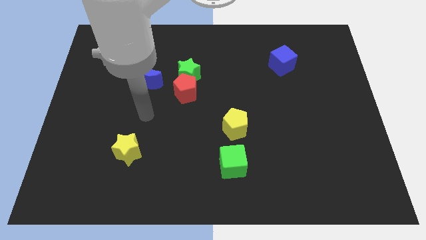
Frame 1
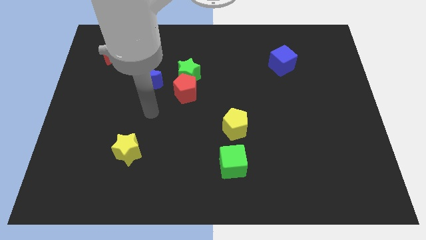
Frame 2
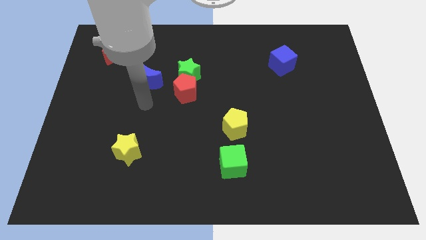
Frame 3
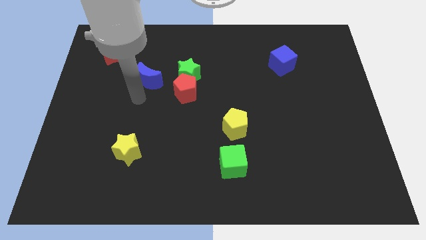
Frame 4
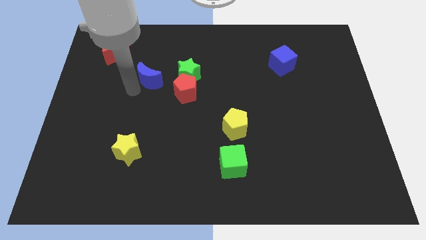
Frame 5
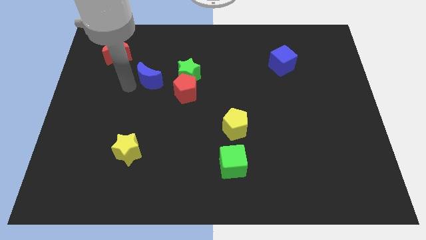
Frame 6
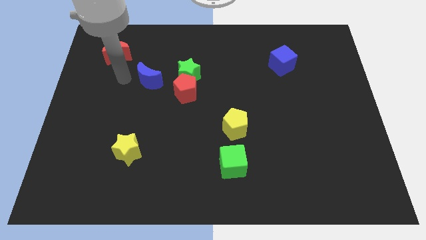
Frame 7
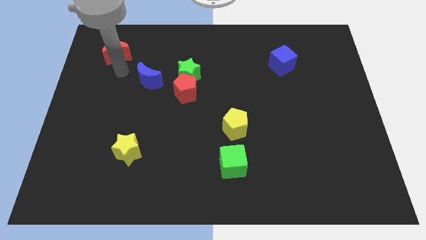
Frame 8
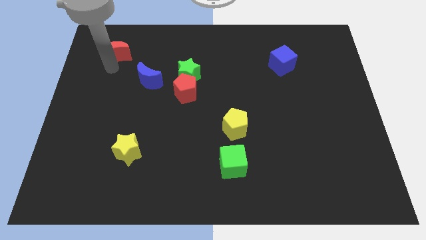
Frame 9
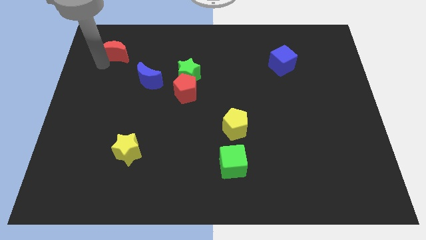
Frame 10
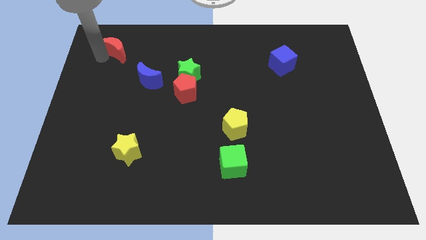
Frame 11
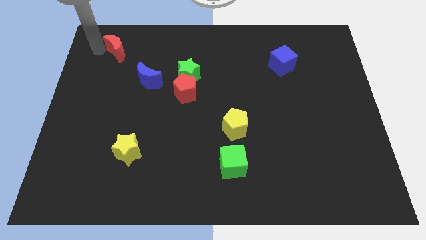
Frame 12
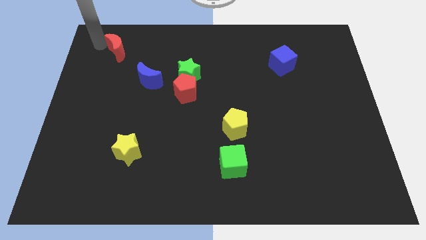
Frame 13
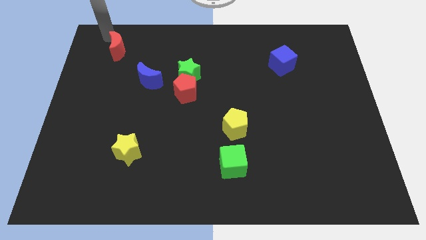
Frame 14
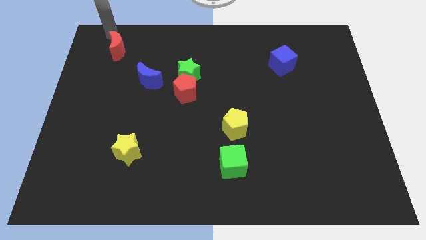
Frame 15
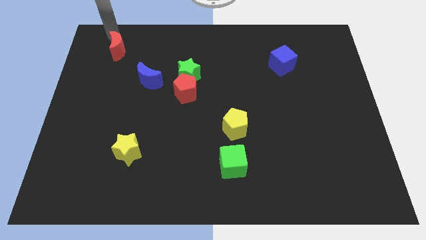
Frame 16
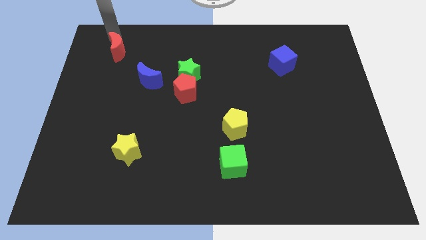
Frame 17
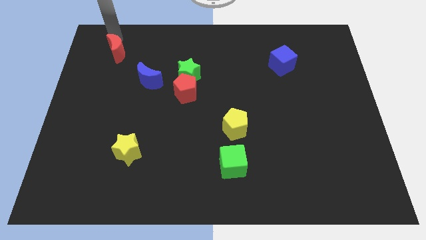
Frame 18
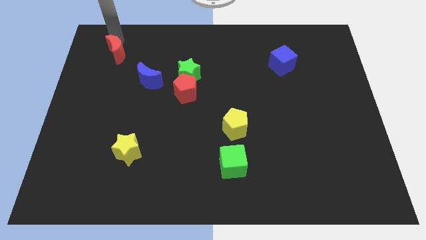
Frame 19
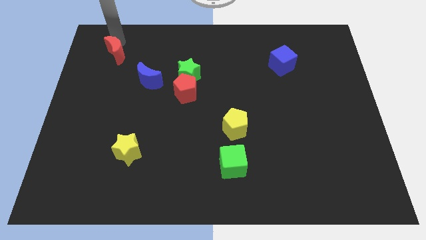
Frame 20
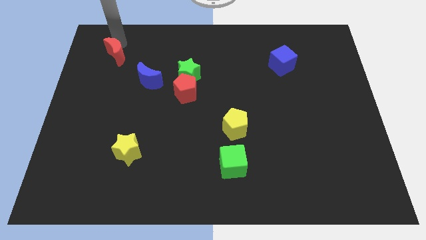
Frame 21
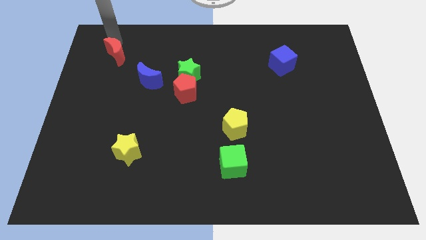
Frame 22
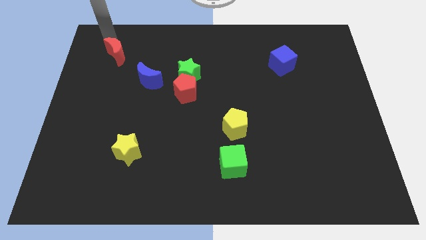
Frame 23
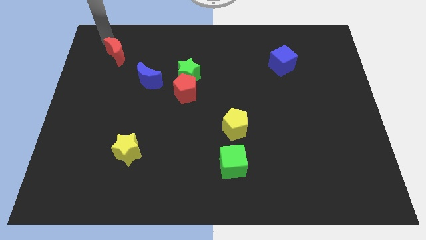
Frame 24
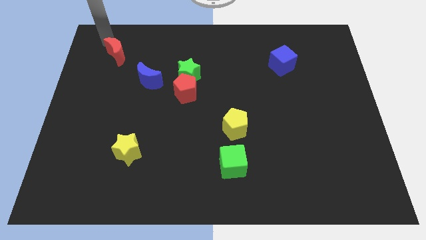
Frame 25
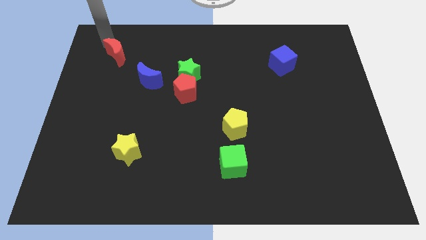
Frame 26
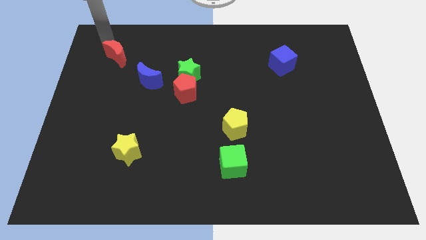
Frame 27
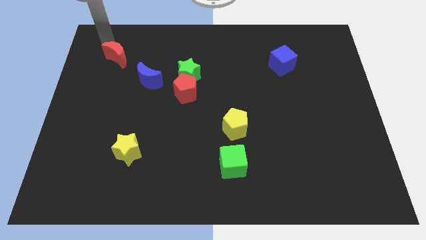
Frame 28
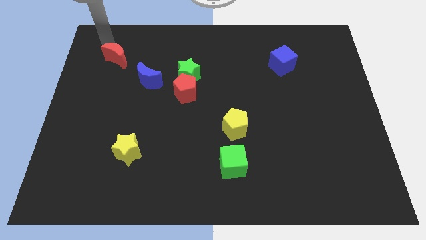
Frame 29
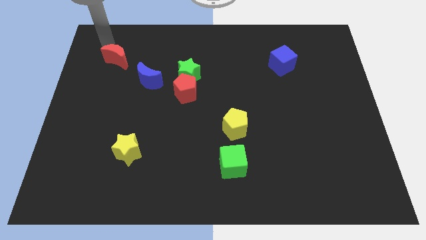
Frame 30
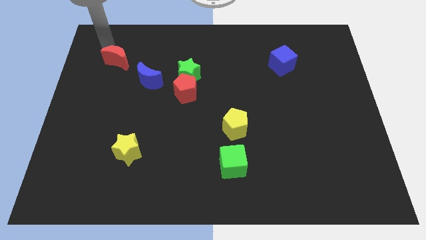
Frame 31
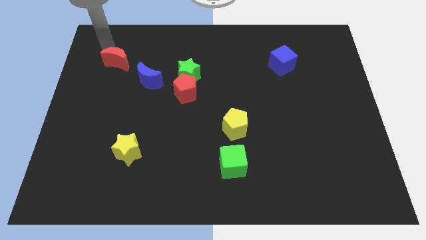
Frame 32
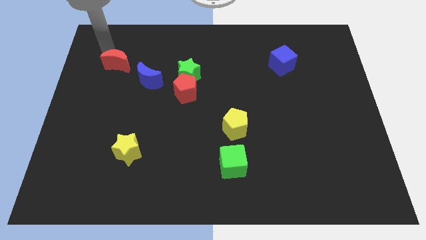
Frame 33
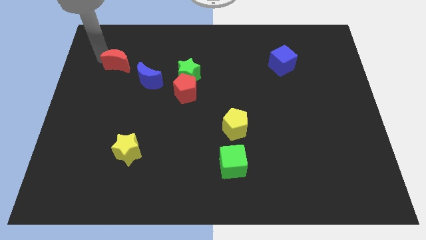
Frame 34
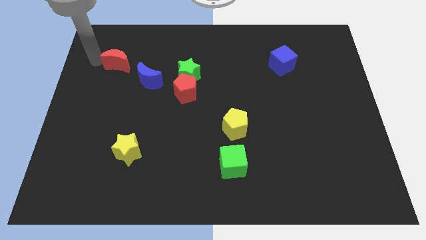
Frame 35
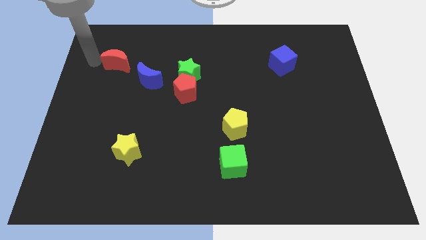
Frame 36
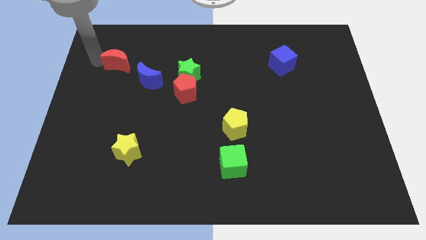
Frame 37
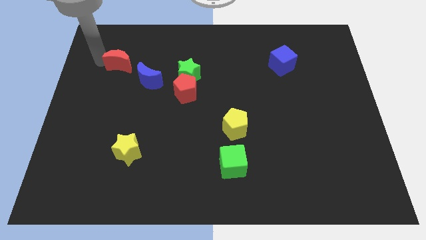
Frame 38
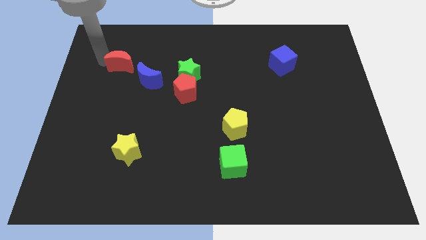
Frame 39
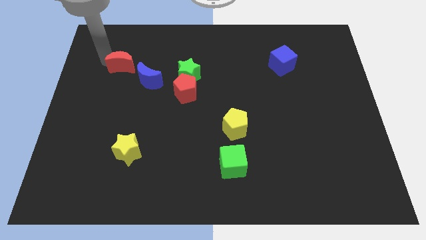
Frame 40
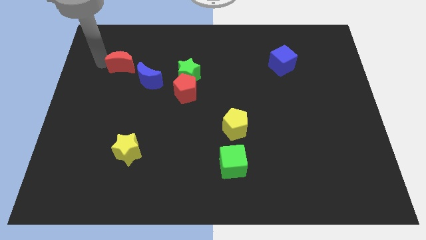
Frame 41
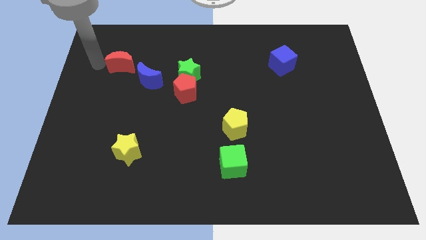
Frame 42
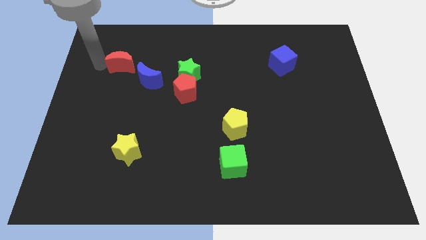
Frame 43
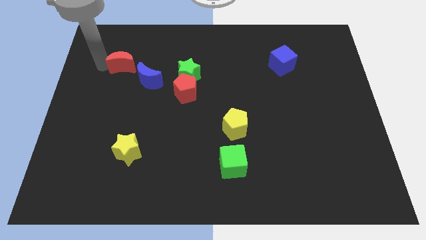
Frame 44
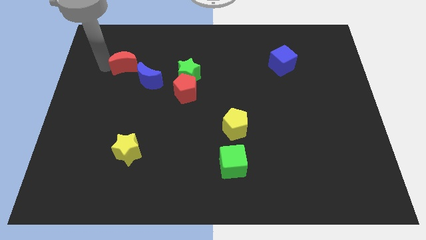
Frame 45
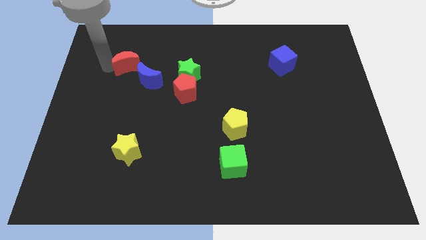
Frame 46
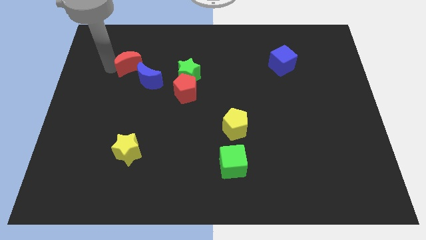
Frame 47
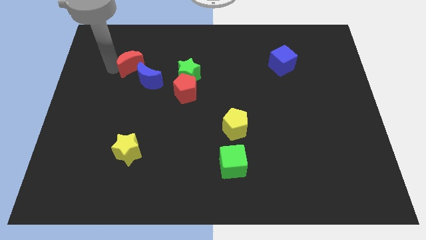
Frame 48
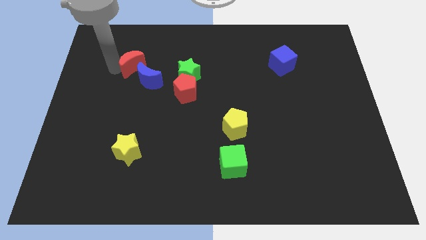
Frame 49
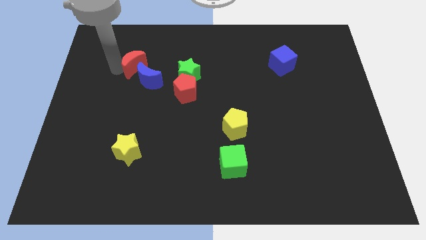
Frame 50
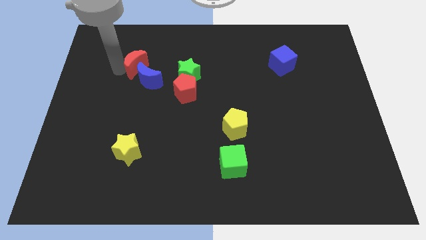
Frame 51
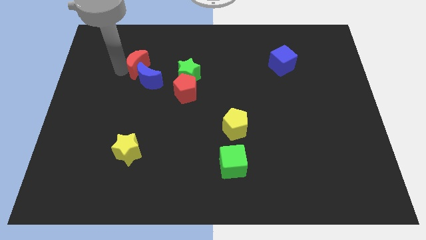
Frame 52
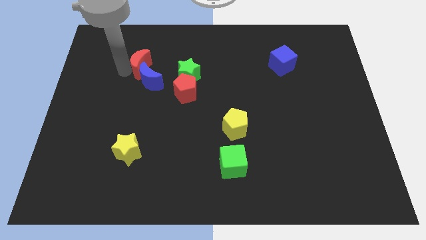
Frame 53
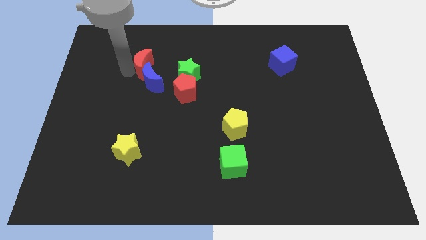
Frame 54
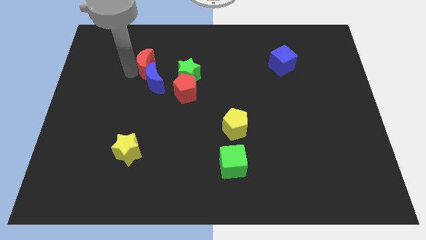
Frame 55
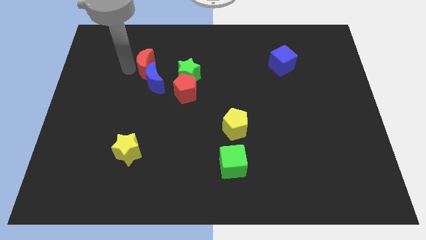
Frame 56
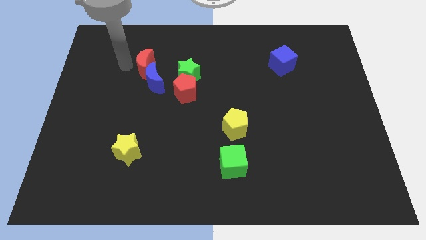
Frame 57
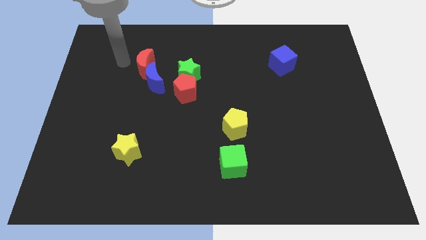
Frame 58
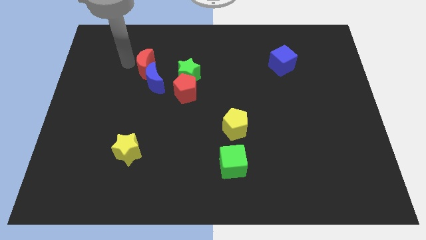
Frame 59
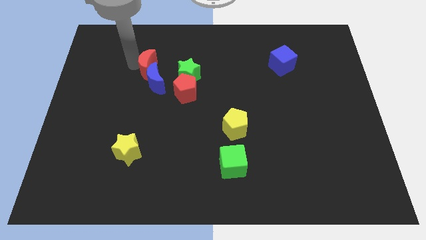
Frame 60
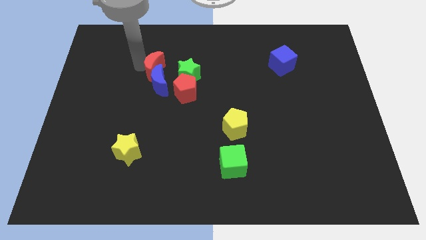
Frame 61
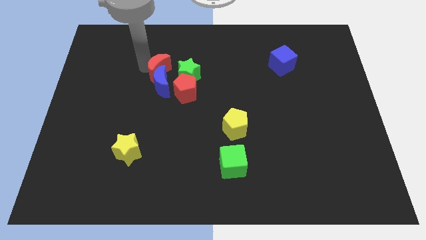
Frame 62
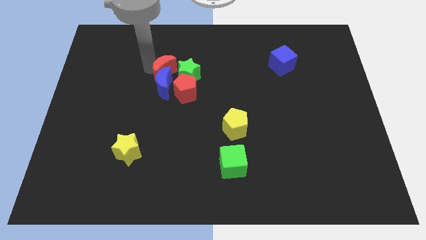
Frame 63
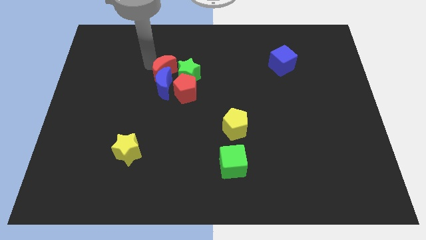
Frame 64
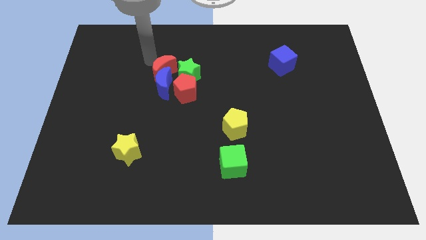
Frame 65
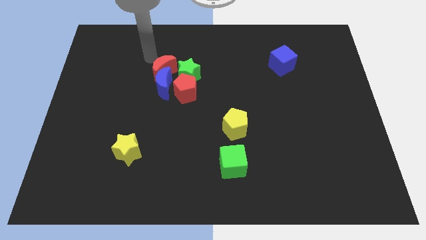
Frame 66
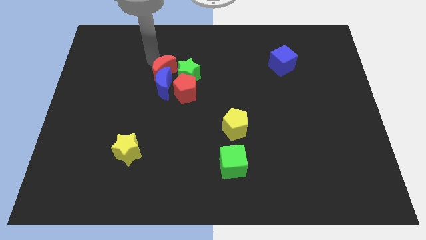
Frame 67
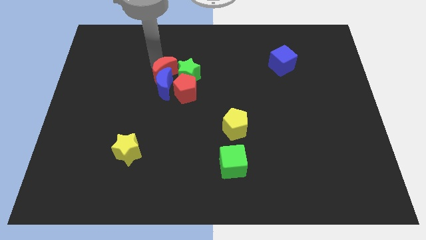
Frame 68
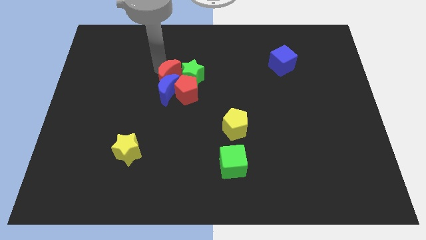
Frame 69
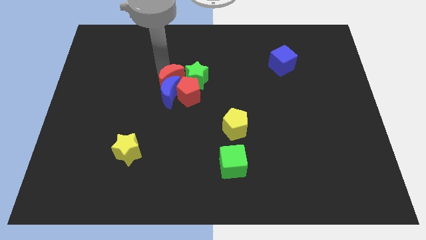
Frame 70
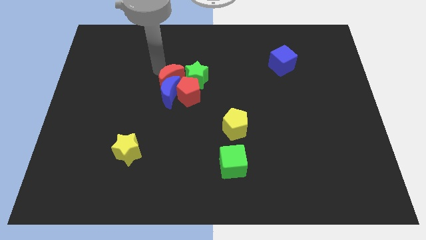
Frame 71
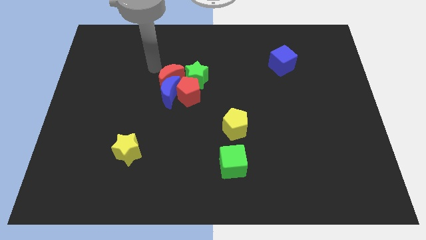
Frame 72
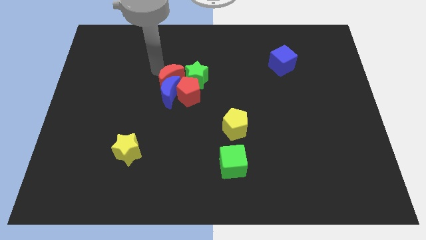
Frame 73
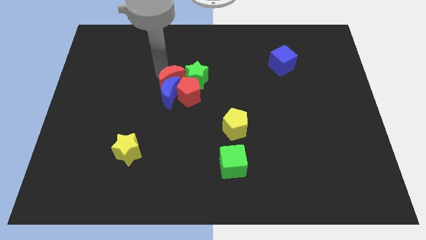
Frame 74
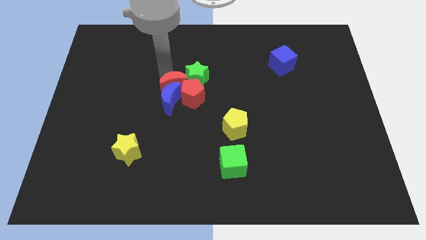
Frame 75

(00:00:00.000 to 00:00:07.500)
move the red moon towards the red pentagon
